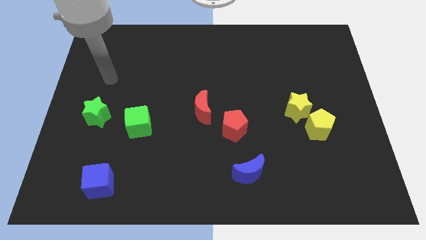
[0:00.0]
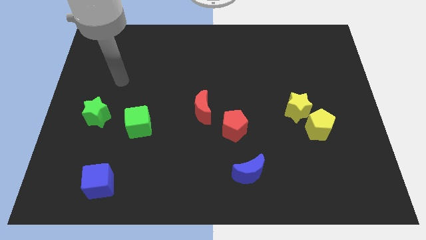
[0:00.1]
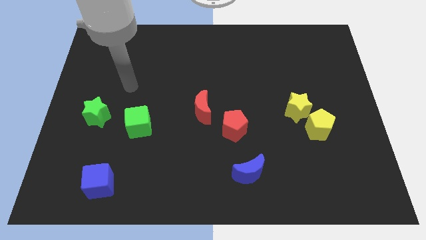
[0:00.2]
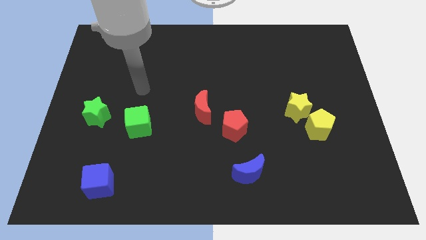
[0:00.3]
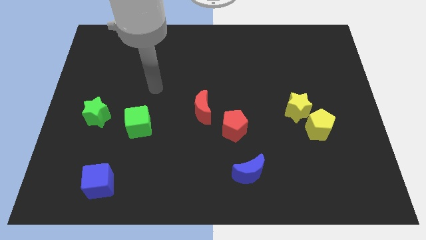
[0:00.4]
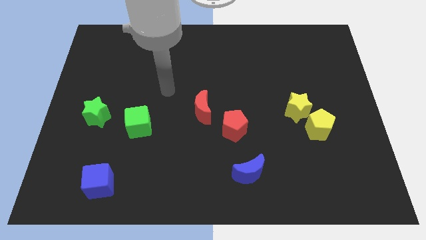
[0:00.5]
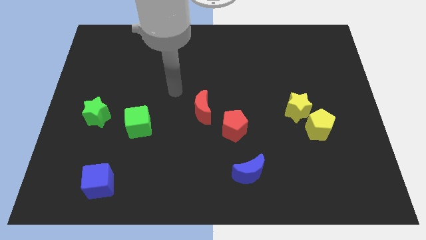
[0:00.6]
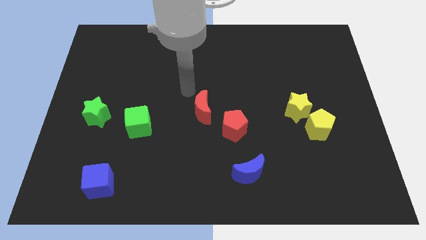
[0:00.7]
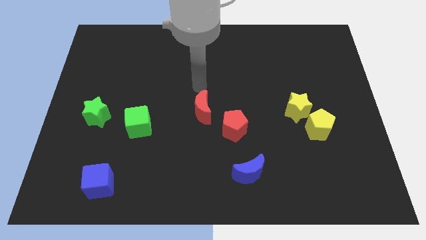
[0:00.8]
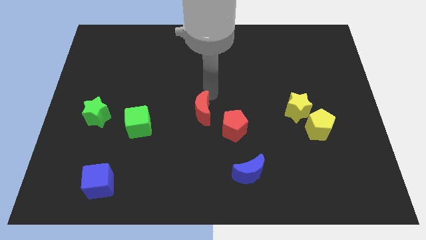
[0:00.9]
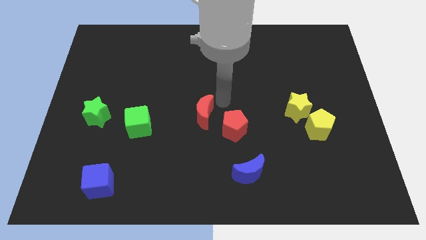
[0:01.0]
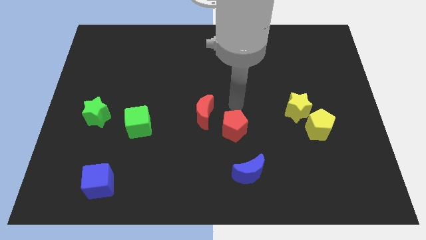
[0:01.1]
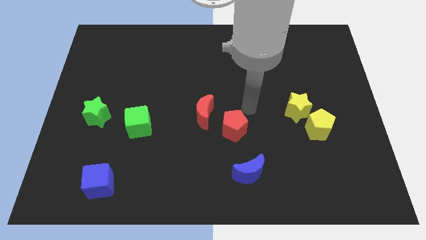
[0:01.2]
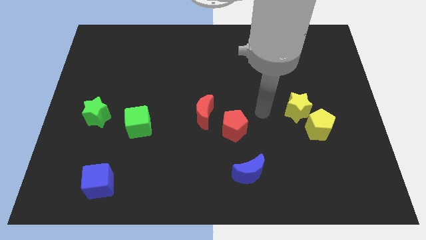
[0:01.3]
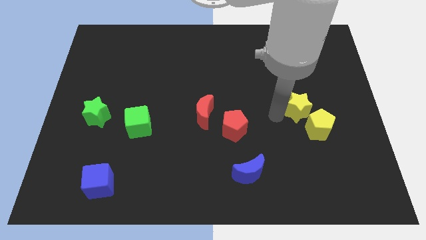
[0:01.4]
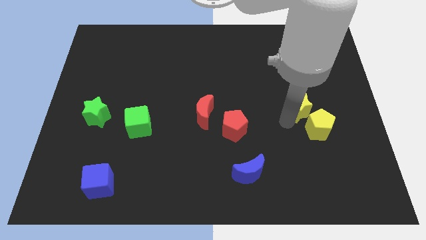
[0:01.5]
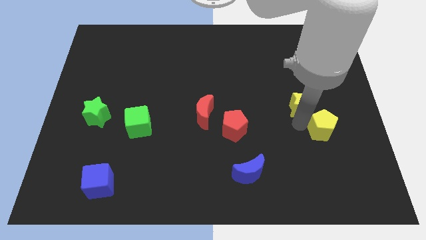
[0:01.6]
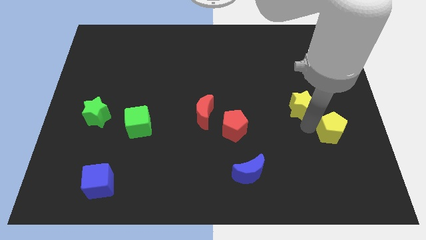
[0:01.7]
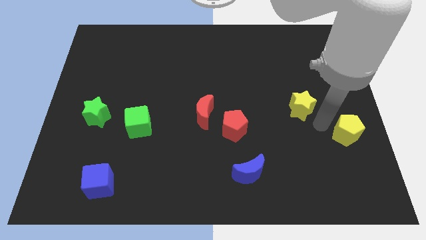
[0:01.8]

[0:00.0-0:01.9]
move the yellow star away from the yellow pentagon

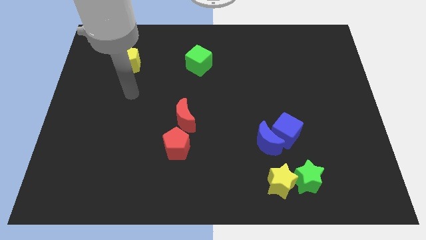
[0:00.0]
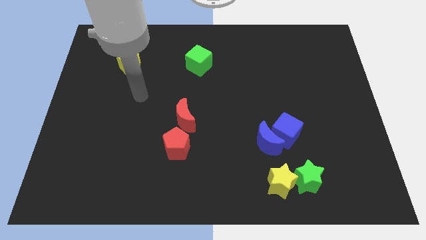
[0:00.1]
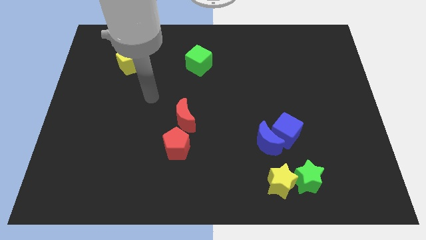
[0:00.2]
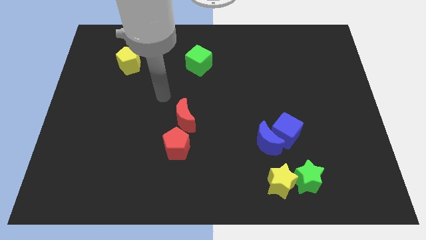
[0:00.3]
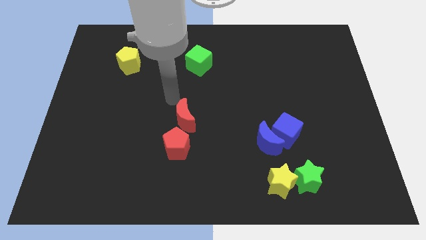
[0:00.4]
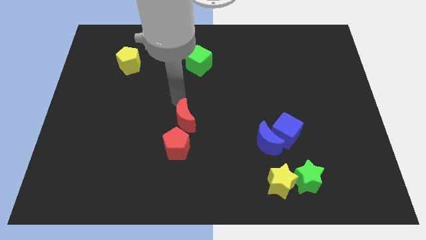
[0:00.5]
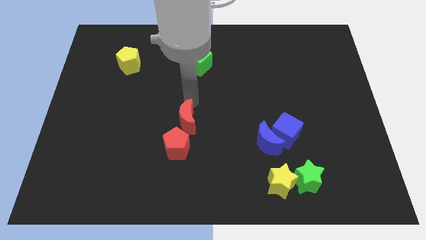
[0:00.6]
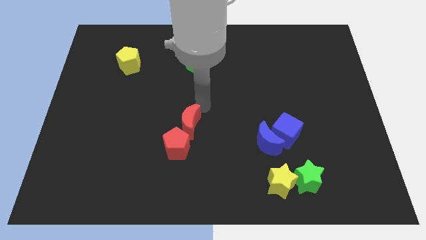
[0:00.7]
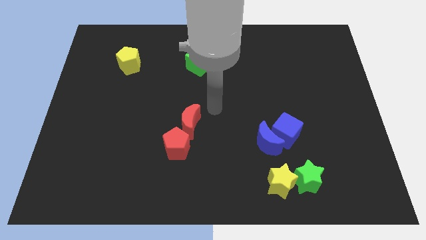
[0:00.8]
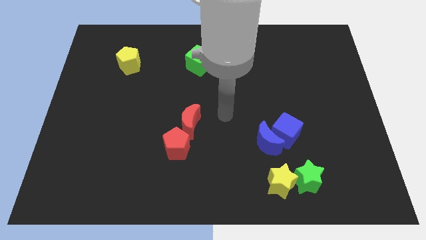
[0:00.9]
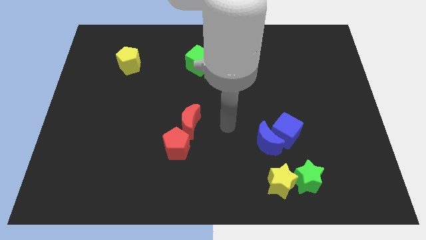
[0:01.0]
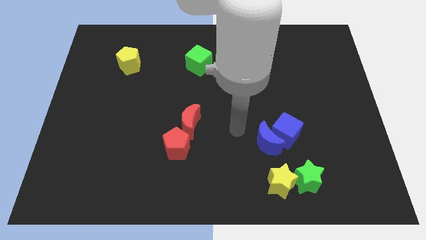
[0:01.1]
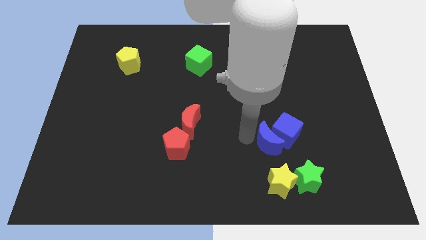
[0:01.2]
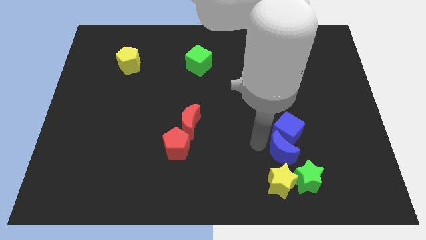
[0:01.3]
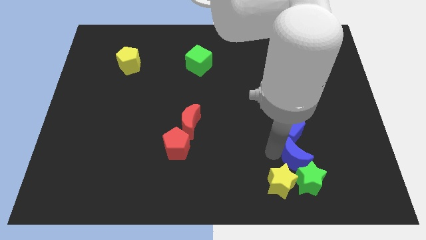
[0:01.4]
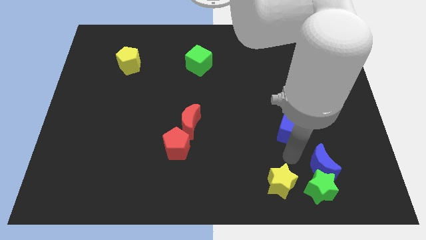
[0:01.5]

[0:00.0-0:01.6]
separate the blue cube from the blue moon

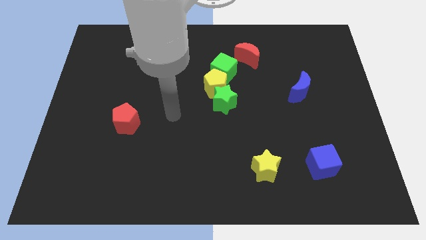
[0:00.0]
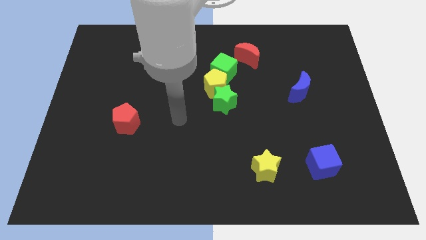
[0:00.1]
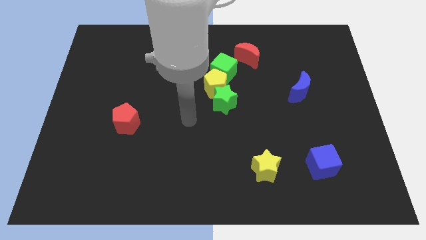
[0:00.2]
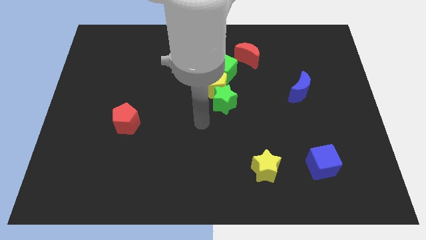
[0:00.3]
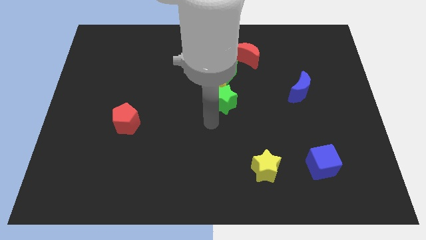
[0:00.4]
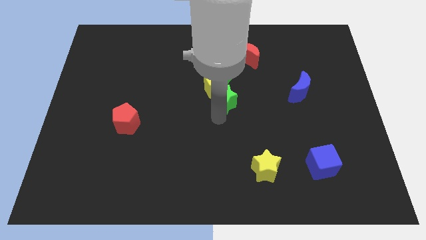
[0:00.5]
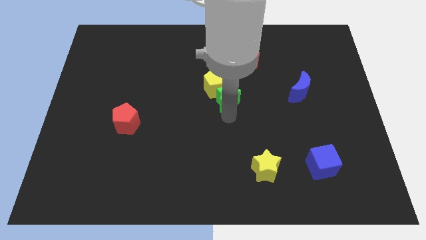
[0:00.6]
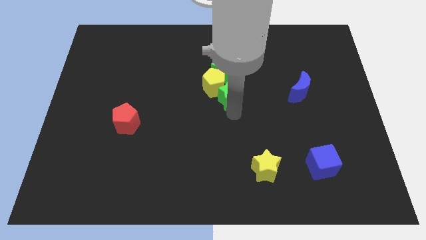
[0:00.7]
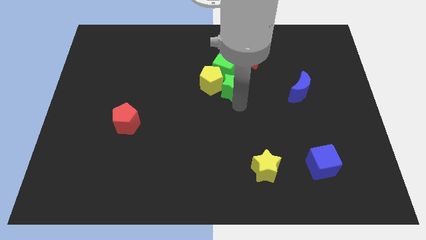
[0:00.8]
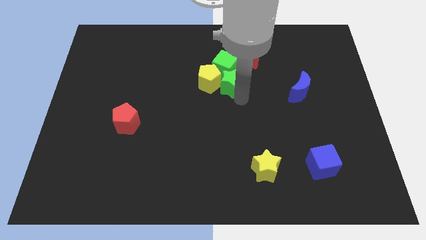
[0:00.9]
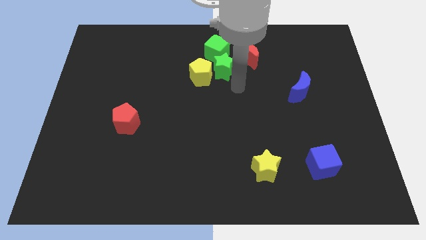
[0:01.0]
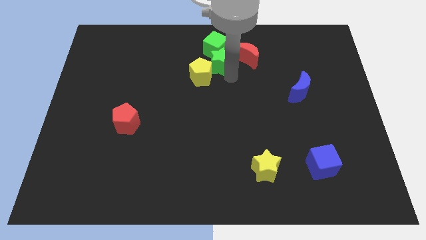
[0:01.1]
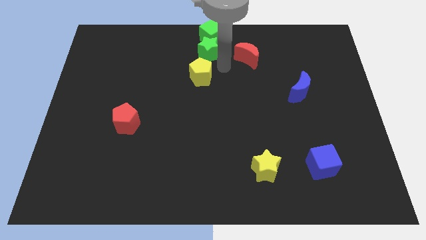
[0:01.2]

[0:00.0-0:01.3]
pull the yellow pentagon apart from the green star and green cube

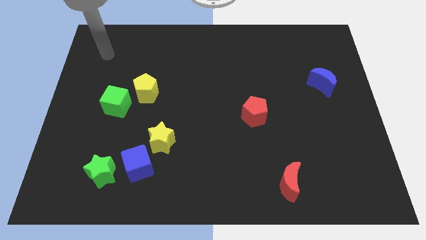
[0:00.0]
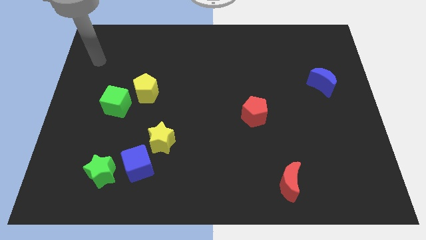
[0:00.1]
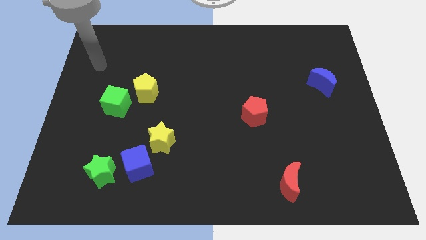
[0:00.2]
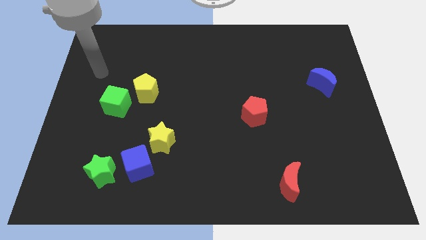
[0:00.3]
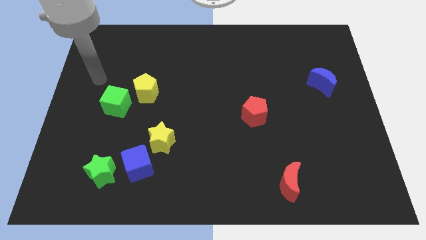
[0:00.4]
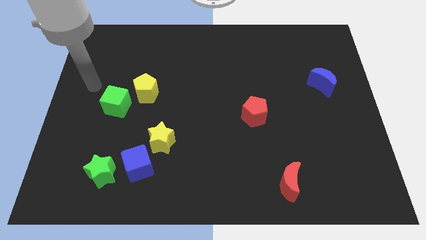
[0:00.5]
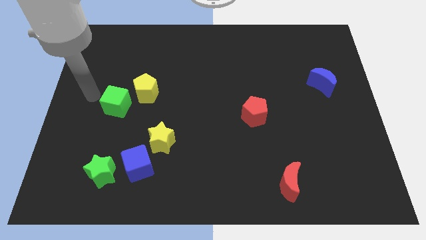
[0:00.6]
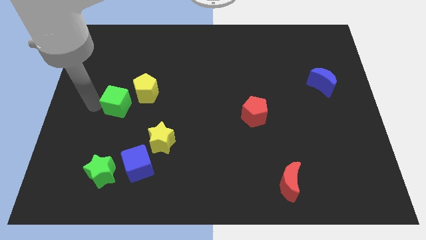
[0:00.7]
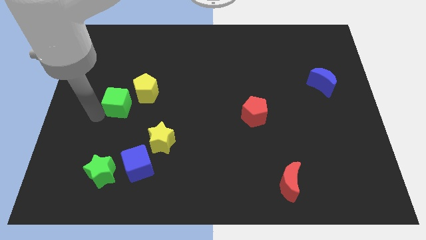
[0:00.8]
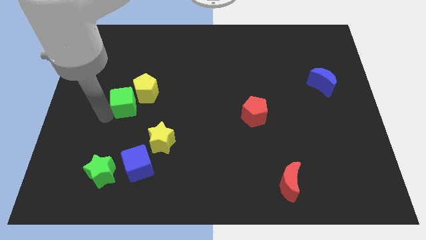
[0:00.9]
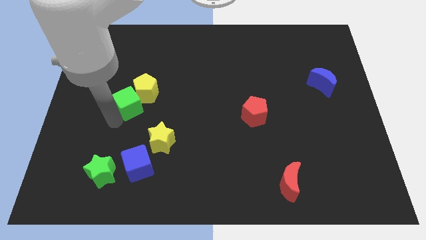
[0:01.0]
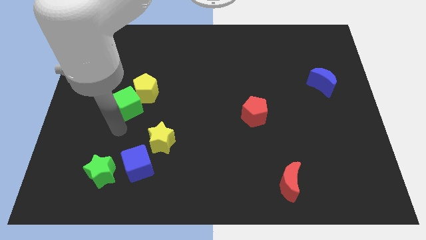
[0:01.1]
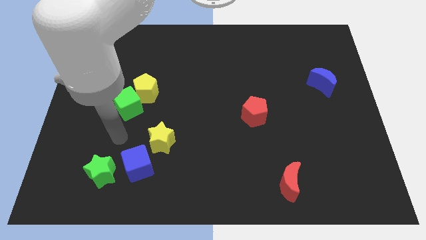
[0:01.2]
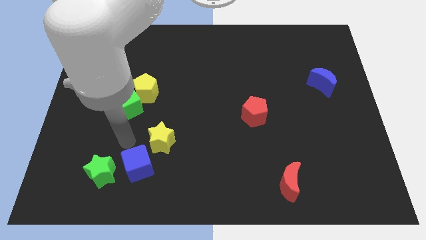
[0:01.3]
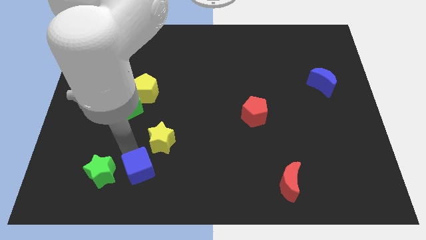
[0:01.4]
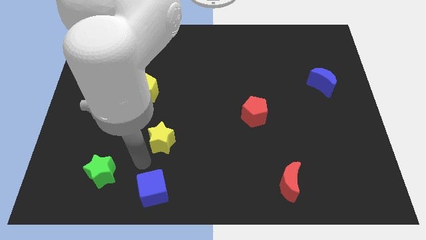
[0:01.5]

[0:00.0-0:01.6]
pull the yellow star apart from the blue cube

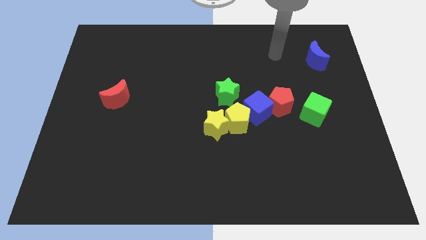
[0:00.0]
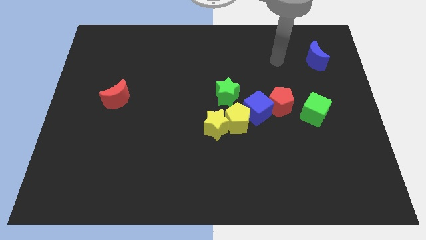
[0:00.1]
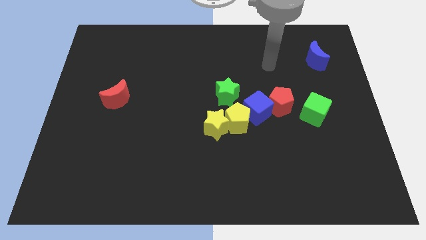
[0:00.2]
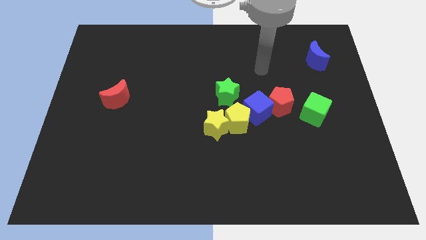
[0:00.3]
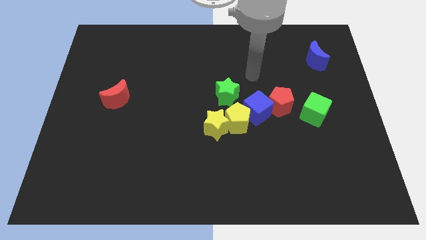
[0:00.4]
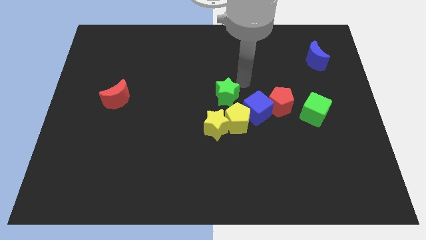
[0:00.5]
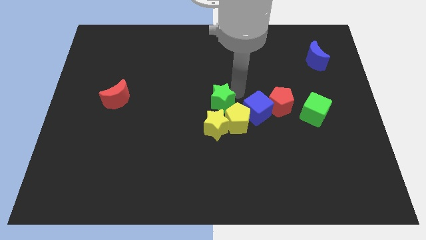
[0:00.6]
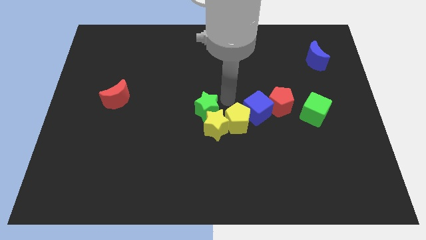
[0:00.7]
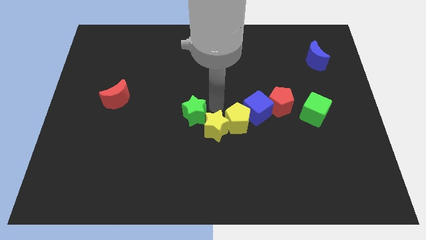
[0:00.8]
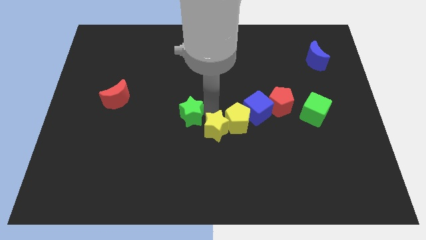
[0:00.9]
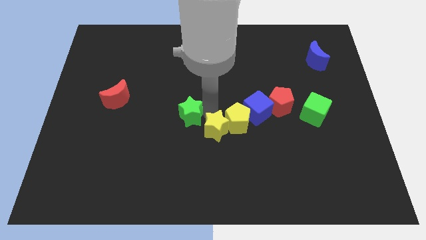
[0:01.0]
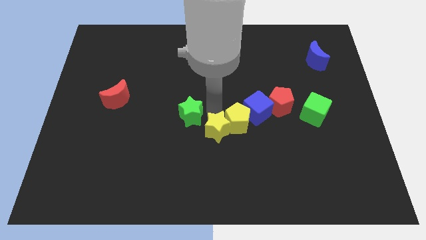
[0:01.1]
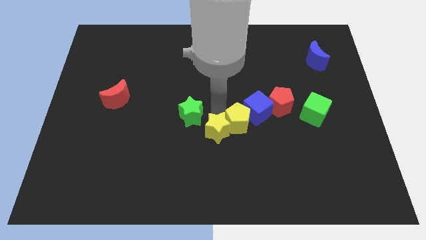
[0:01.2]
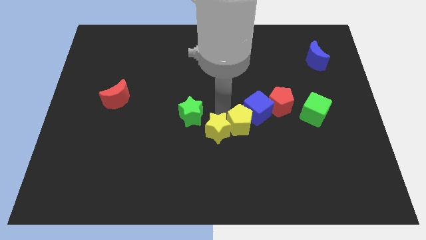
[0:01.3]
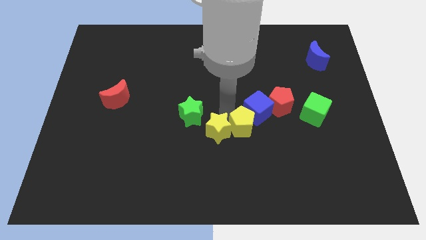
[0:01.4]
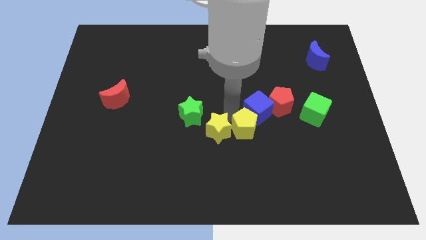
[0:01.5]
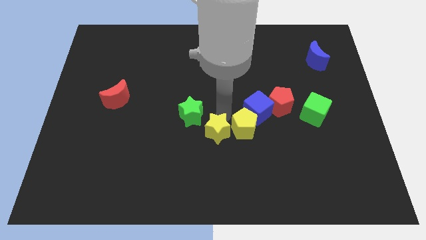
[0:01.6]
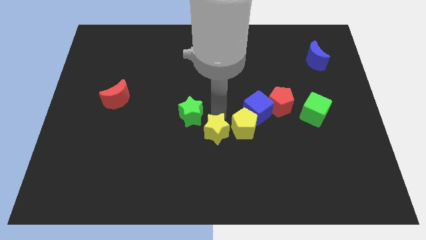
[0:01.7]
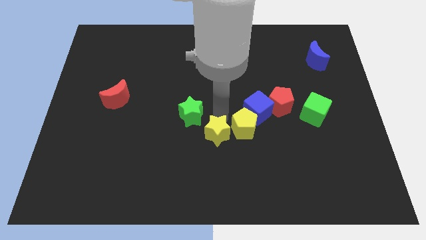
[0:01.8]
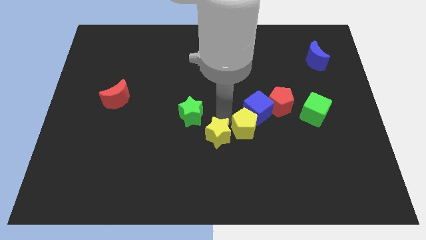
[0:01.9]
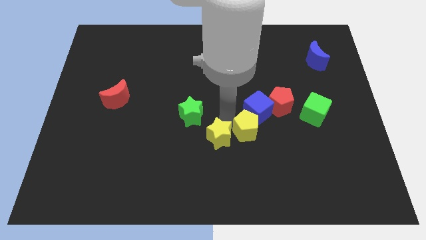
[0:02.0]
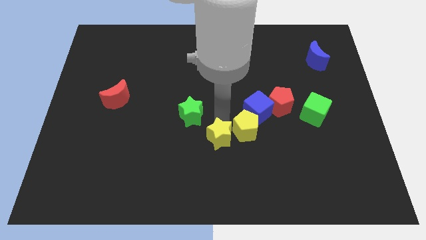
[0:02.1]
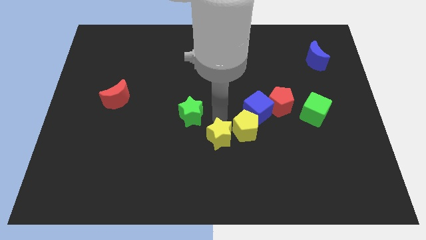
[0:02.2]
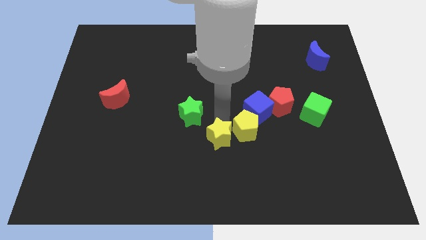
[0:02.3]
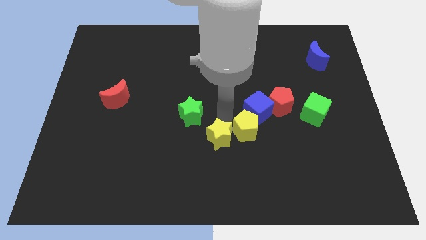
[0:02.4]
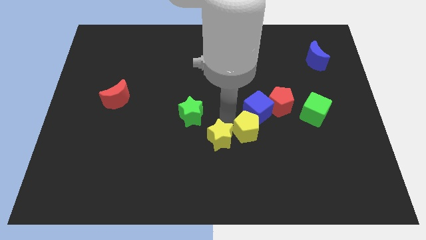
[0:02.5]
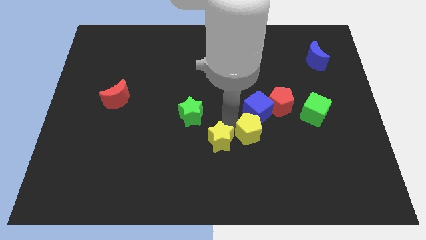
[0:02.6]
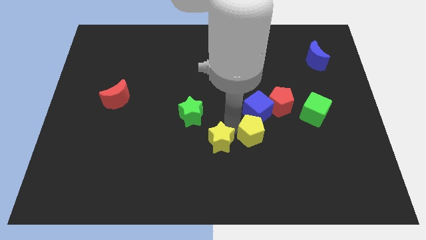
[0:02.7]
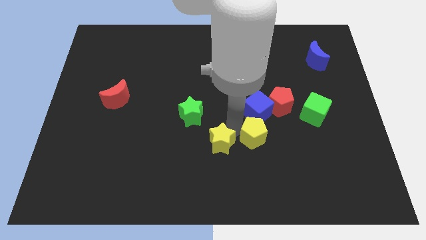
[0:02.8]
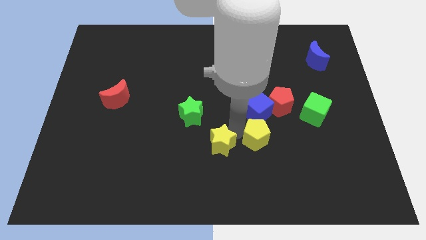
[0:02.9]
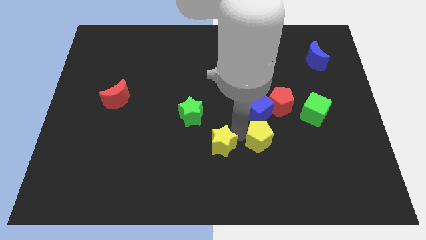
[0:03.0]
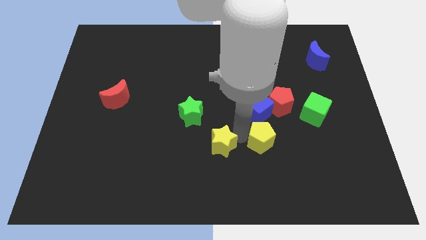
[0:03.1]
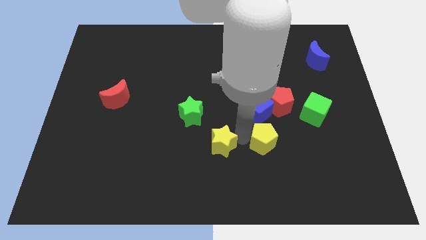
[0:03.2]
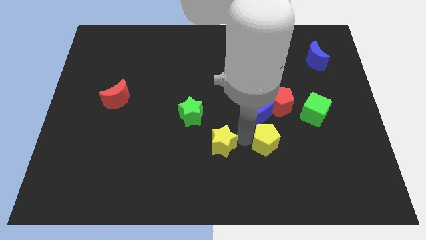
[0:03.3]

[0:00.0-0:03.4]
pull the yellow pentagon apart from the yellow star, blue cube, and green star
